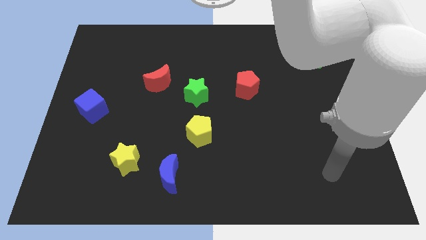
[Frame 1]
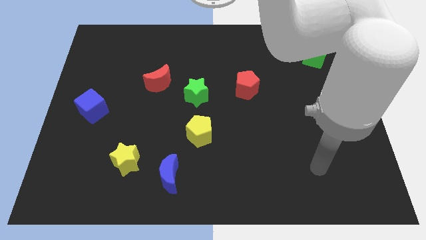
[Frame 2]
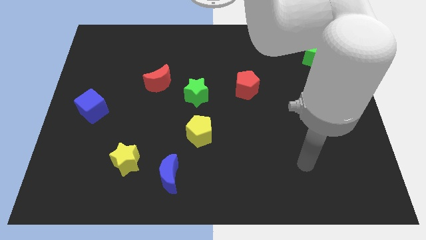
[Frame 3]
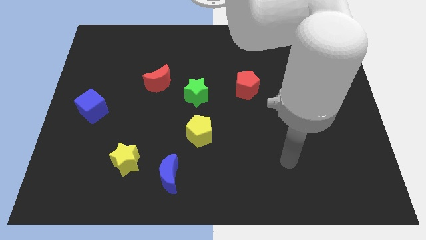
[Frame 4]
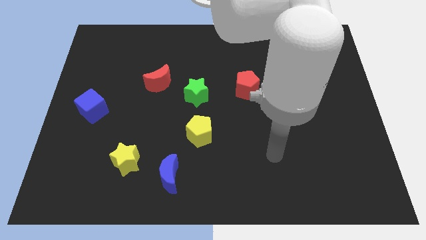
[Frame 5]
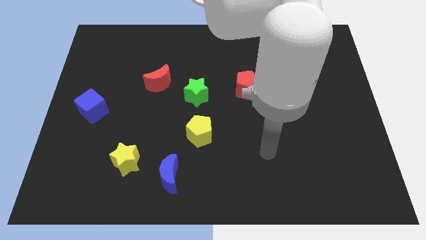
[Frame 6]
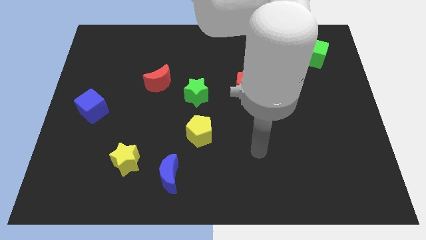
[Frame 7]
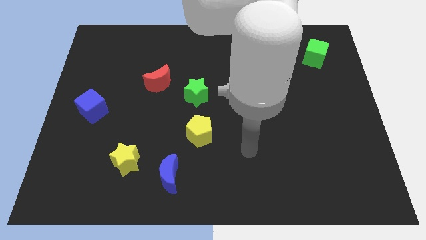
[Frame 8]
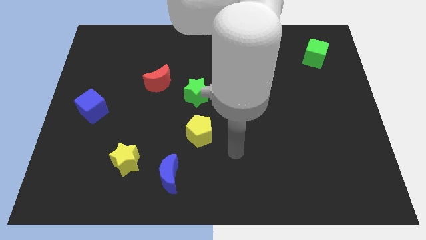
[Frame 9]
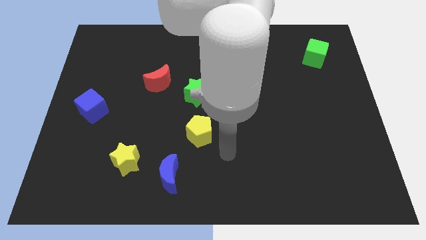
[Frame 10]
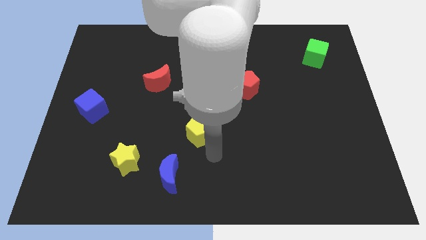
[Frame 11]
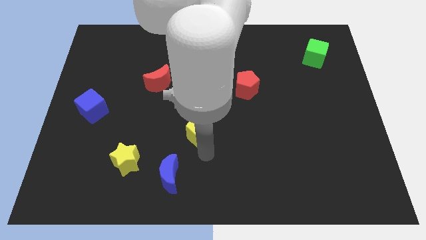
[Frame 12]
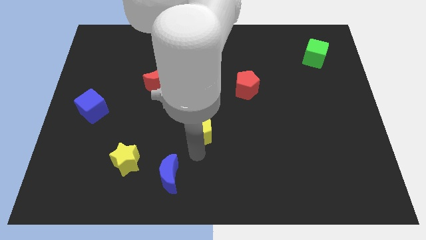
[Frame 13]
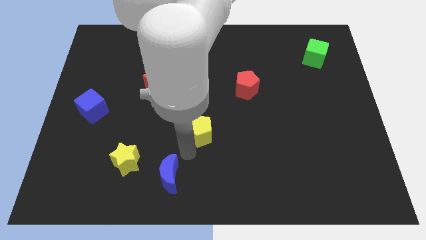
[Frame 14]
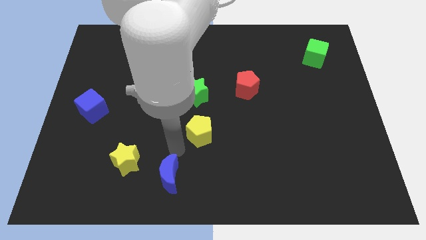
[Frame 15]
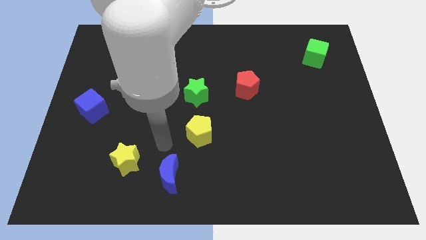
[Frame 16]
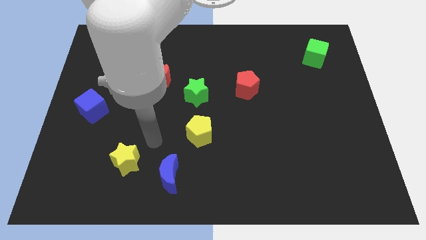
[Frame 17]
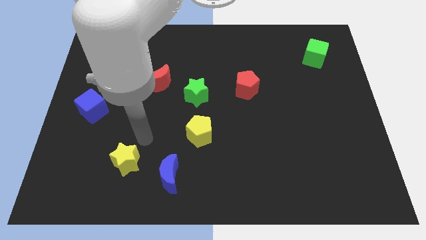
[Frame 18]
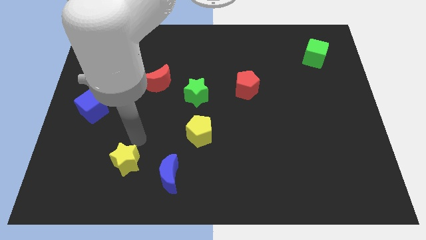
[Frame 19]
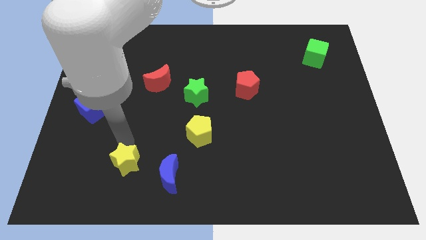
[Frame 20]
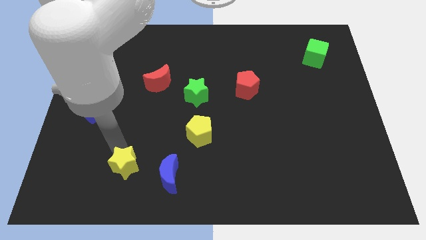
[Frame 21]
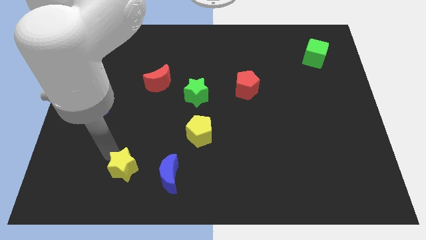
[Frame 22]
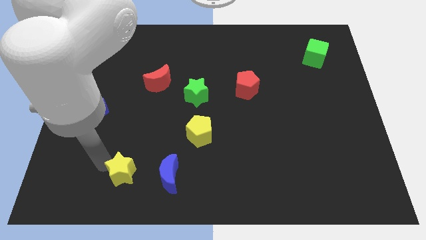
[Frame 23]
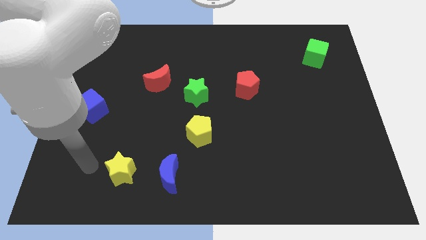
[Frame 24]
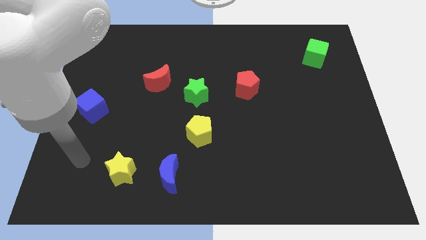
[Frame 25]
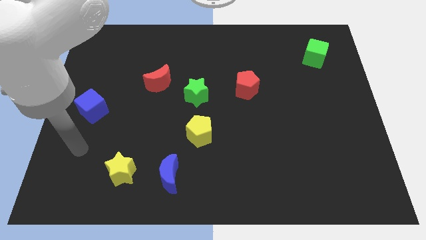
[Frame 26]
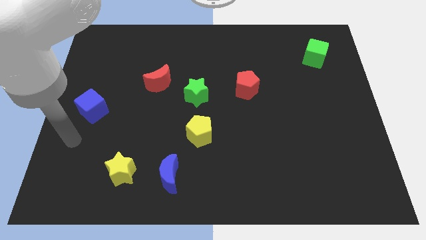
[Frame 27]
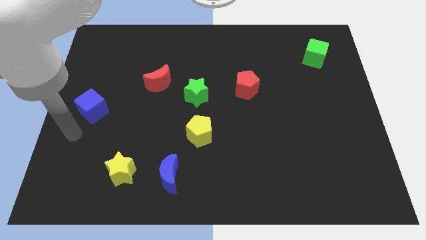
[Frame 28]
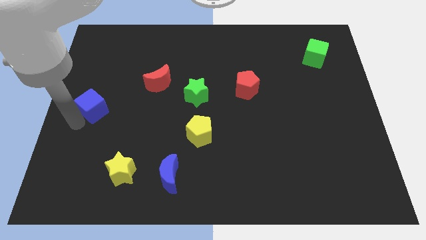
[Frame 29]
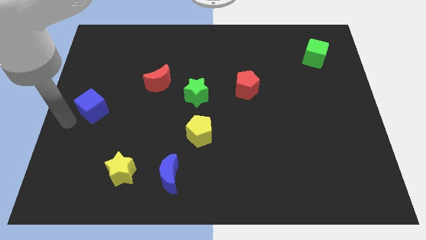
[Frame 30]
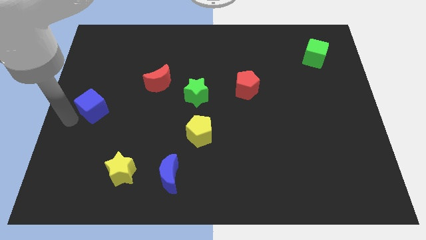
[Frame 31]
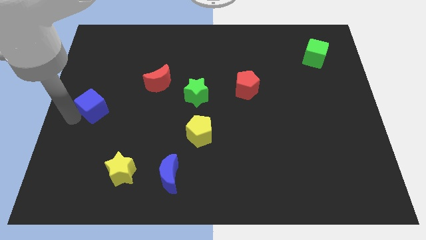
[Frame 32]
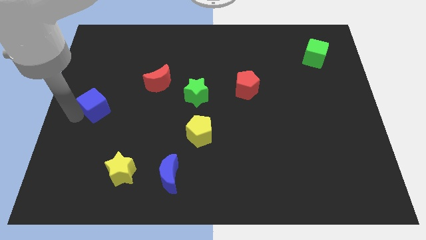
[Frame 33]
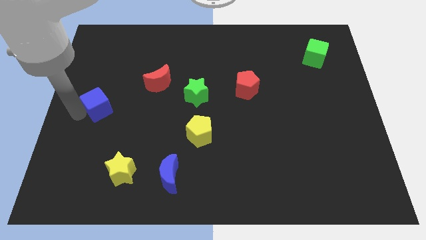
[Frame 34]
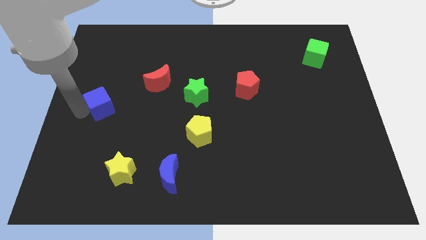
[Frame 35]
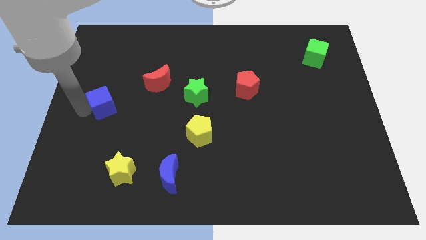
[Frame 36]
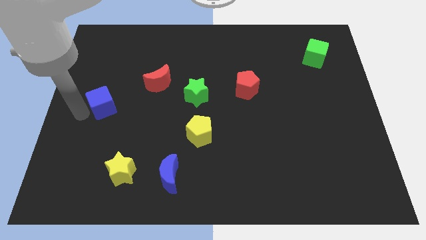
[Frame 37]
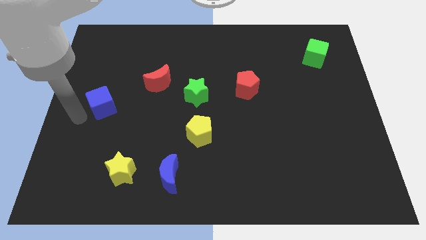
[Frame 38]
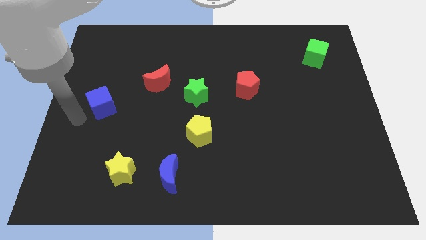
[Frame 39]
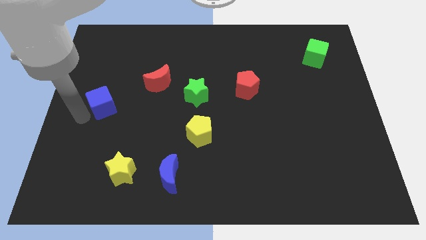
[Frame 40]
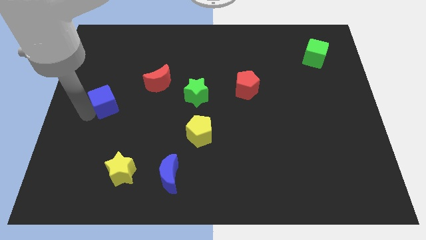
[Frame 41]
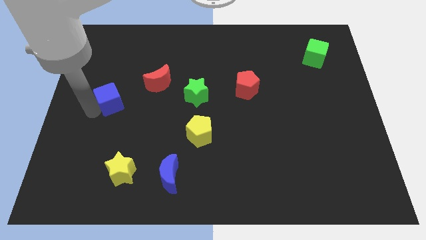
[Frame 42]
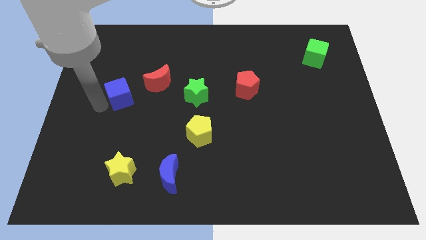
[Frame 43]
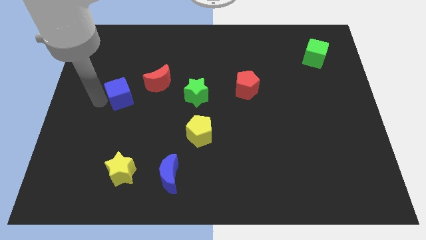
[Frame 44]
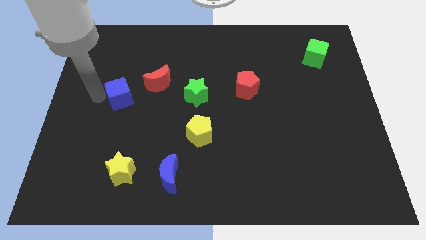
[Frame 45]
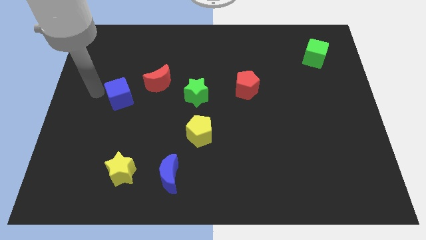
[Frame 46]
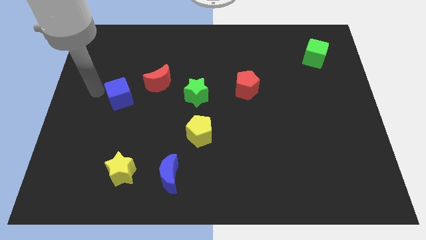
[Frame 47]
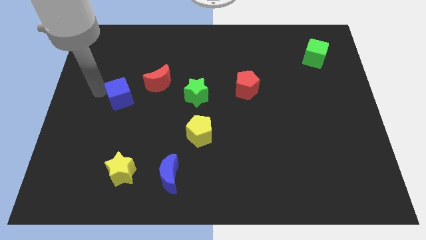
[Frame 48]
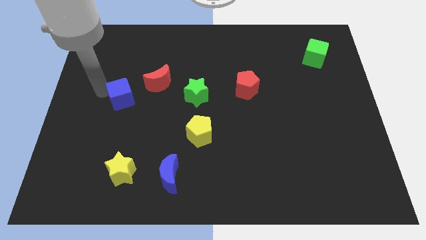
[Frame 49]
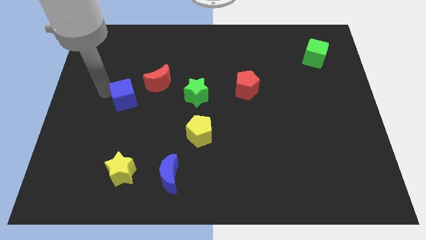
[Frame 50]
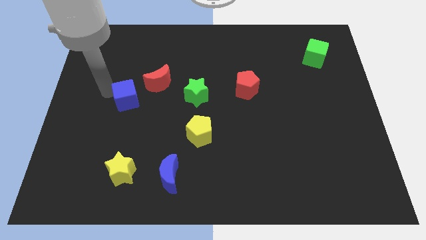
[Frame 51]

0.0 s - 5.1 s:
move the blue cube right a little bit

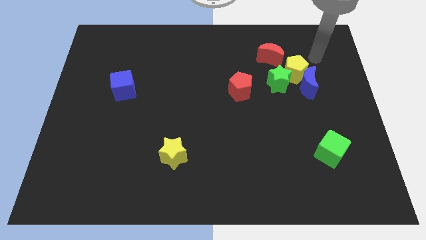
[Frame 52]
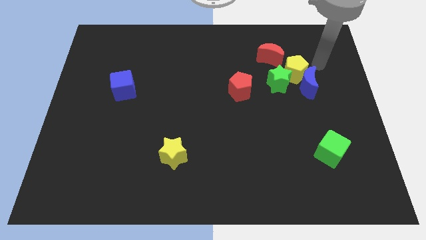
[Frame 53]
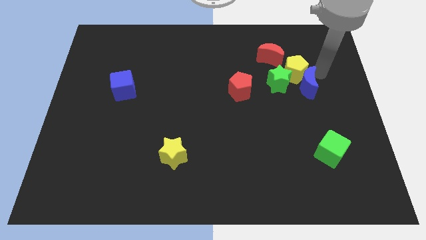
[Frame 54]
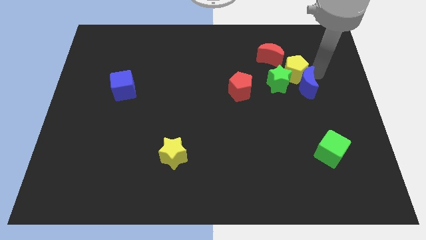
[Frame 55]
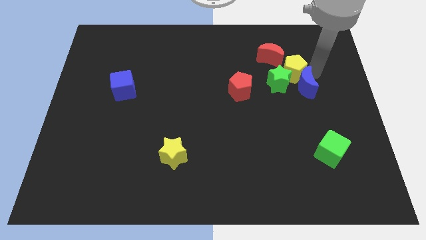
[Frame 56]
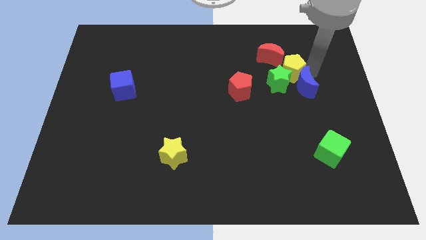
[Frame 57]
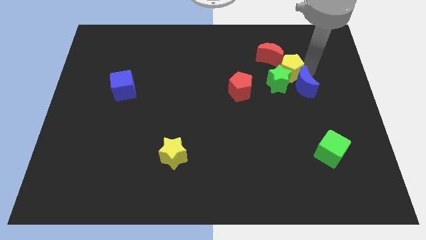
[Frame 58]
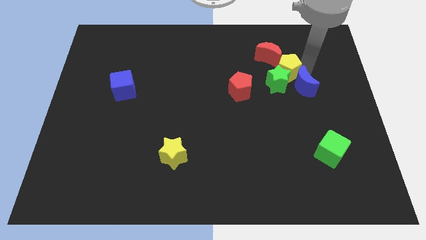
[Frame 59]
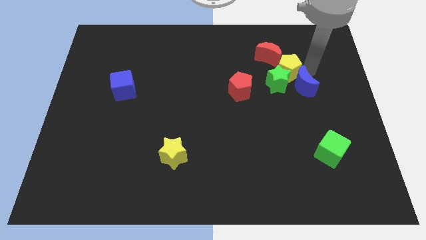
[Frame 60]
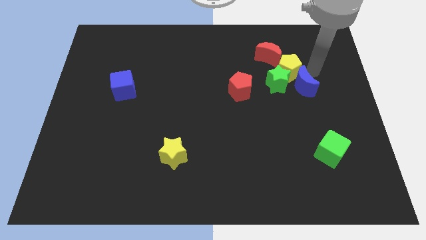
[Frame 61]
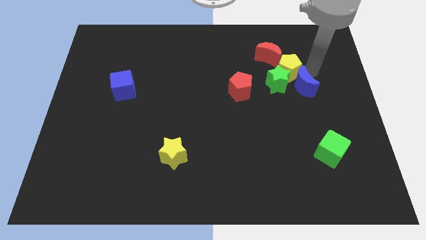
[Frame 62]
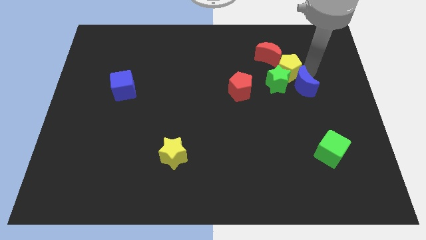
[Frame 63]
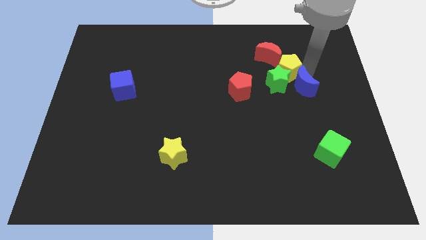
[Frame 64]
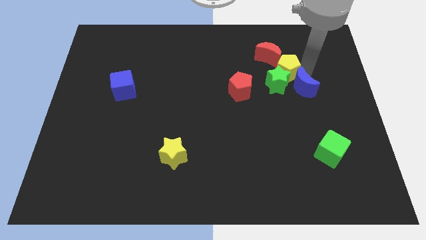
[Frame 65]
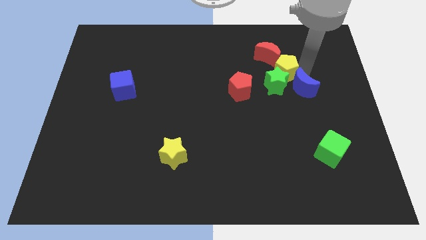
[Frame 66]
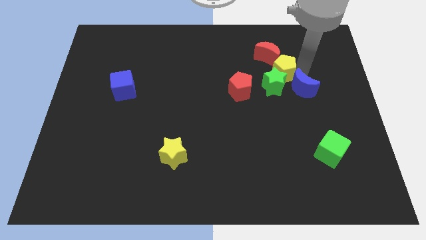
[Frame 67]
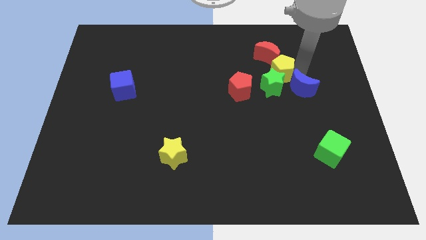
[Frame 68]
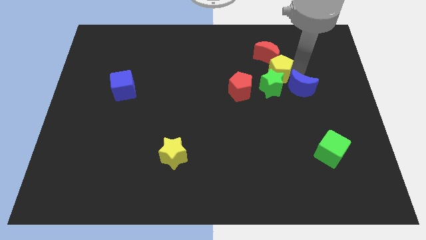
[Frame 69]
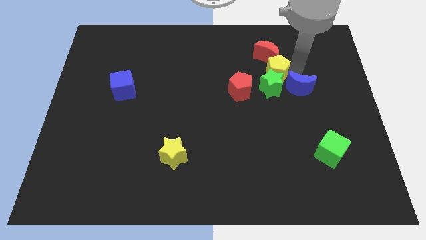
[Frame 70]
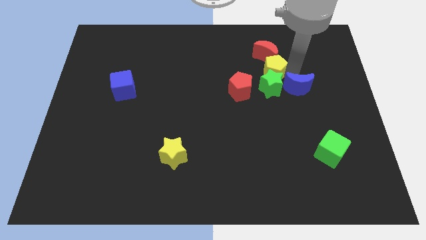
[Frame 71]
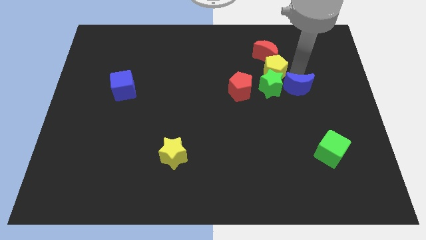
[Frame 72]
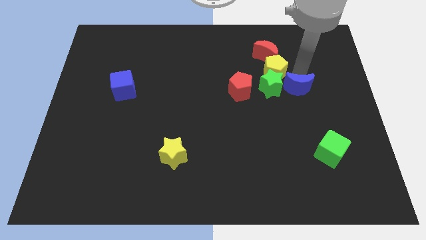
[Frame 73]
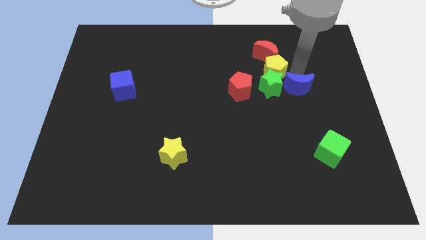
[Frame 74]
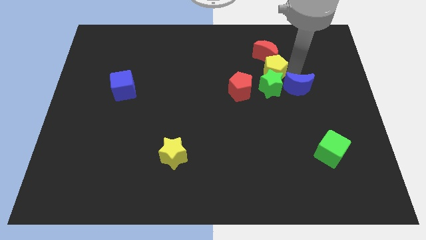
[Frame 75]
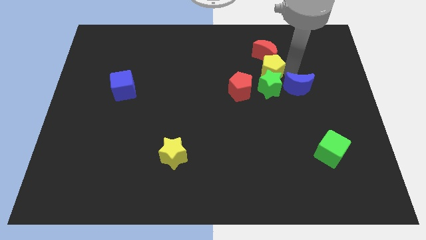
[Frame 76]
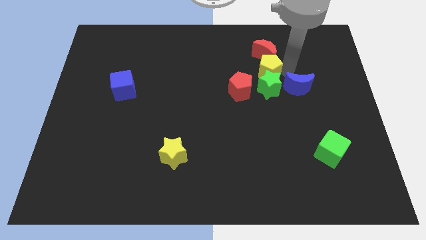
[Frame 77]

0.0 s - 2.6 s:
slightly move the yellow pentagon to the left

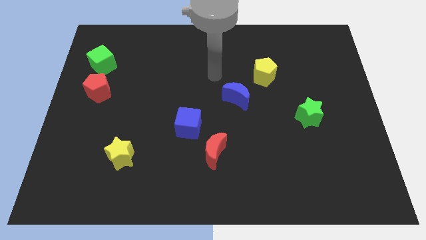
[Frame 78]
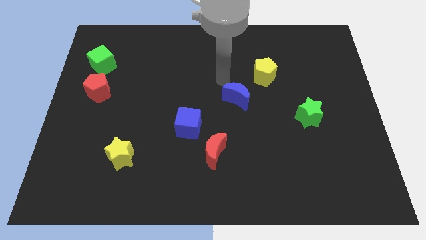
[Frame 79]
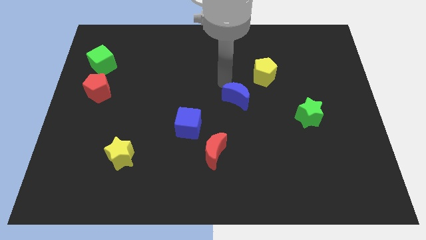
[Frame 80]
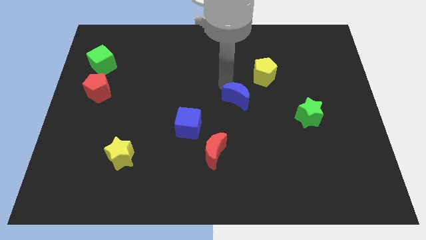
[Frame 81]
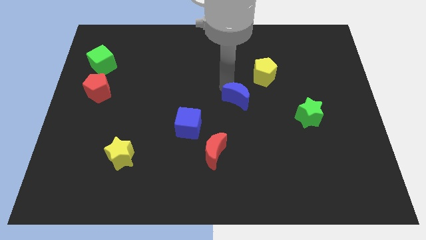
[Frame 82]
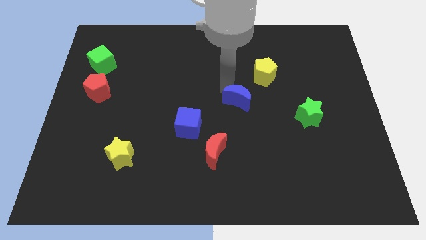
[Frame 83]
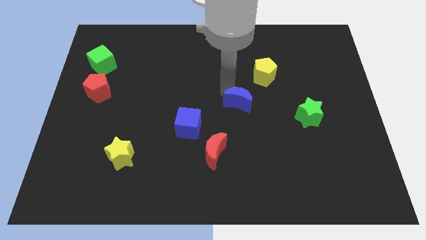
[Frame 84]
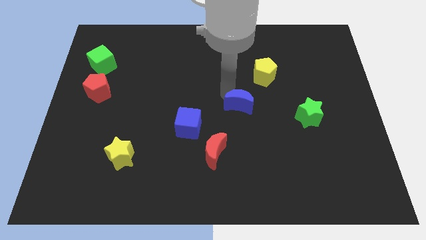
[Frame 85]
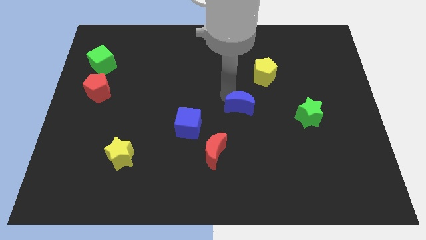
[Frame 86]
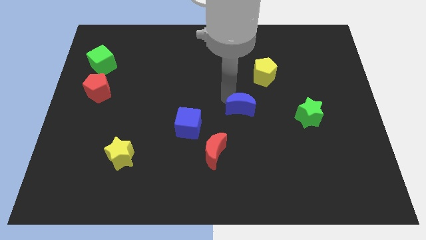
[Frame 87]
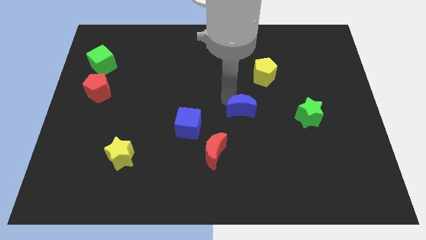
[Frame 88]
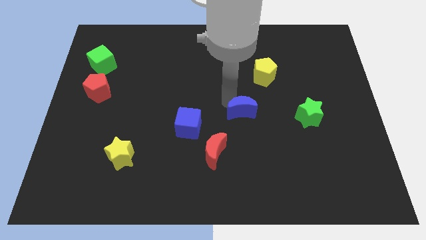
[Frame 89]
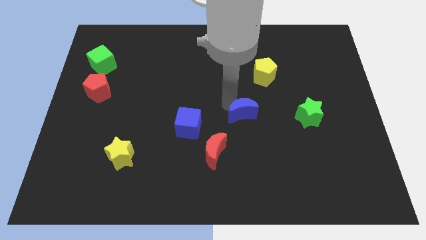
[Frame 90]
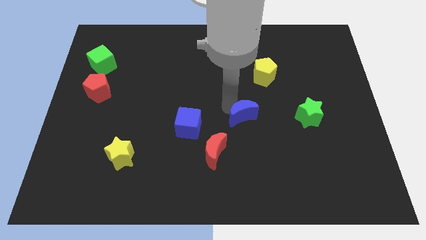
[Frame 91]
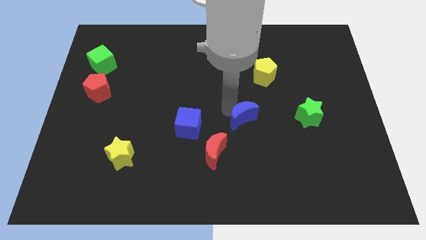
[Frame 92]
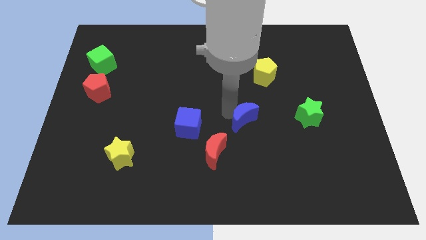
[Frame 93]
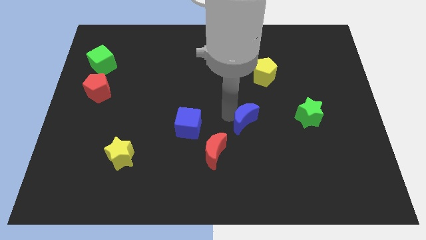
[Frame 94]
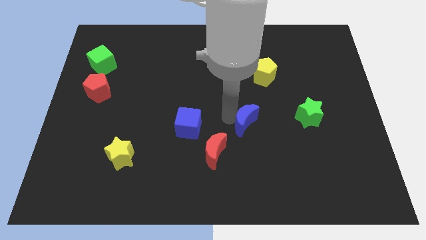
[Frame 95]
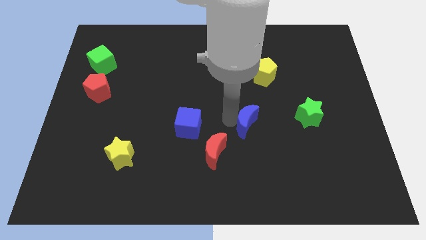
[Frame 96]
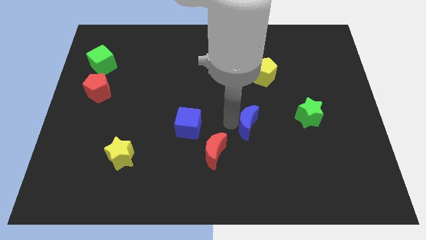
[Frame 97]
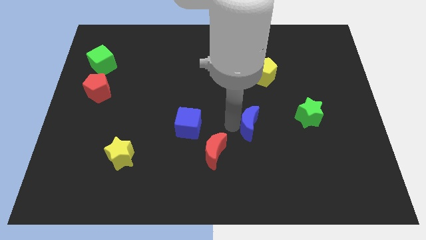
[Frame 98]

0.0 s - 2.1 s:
slightly move the blue moon diagonally downwards and right
